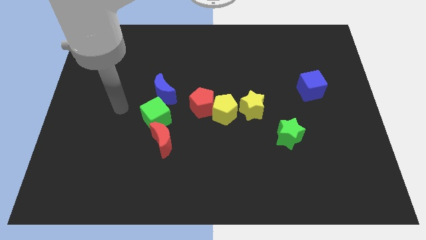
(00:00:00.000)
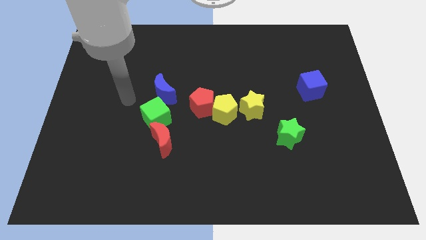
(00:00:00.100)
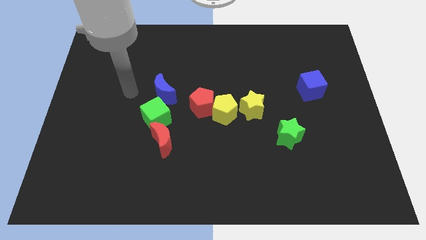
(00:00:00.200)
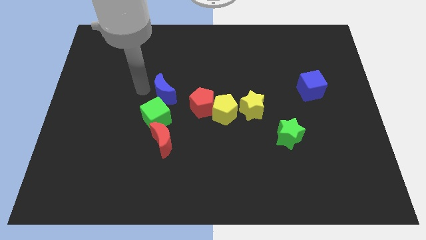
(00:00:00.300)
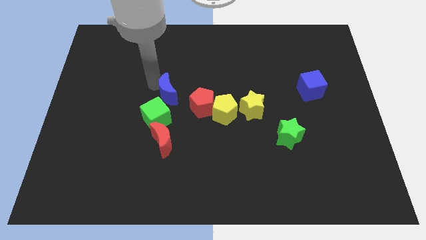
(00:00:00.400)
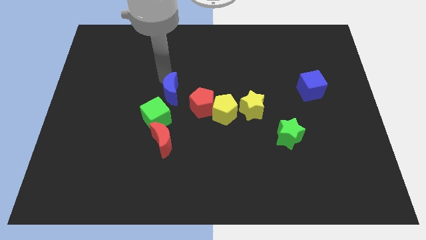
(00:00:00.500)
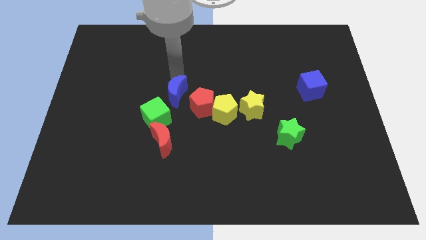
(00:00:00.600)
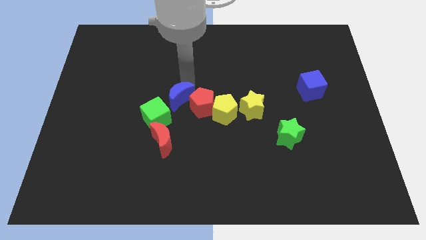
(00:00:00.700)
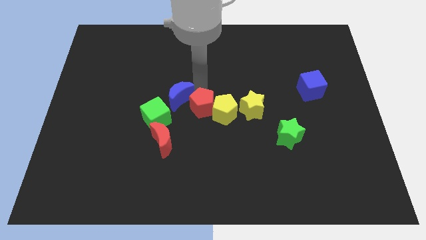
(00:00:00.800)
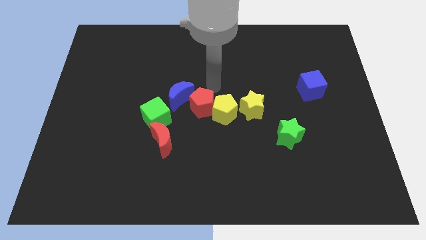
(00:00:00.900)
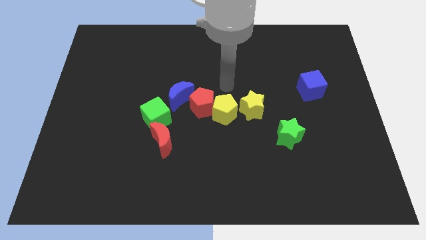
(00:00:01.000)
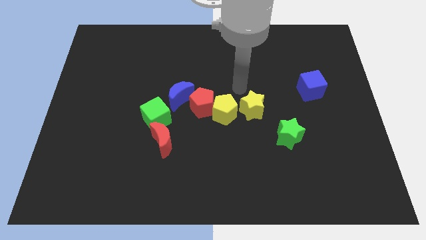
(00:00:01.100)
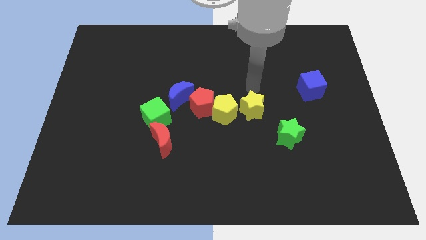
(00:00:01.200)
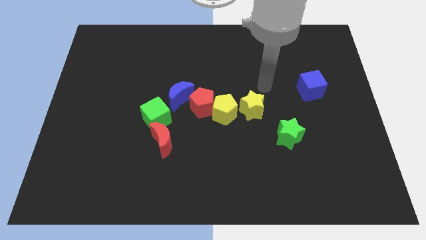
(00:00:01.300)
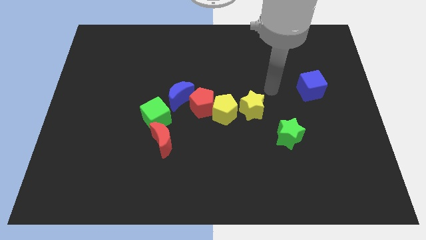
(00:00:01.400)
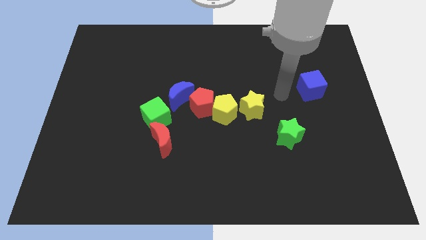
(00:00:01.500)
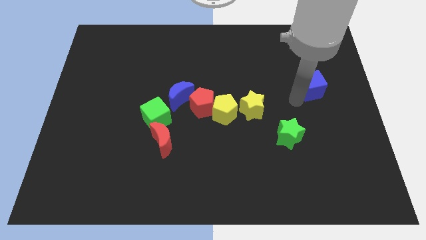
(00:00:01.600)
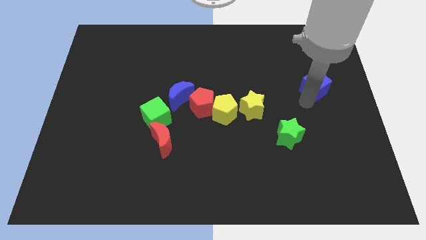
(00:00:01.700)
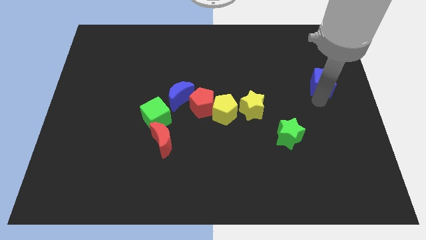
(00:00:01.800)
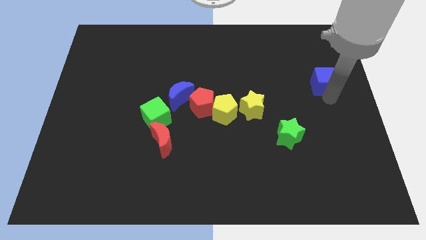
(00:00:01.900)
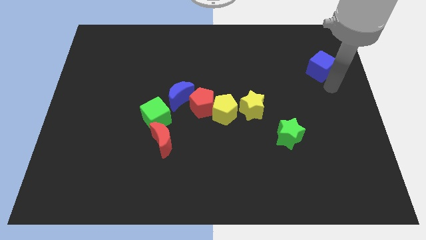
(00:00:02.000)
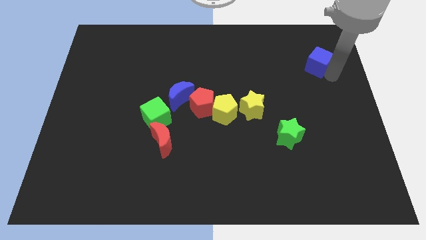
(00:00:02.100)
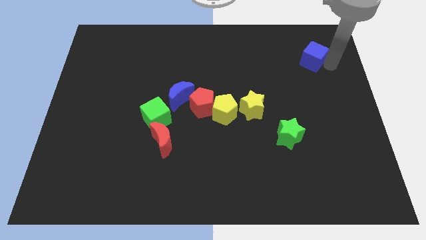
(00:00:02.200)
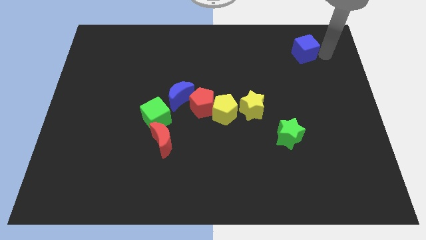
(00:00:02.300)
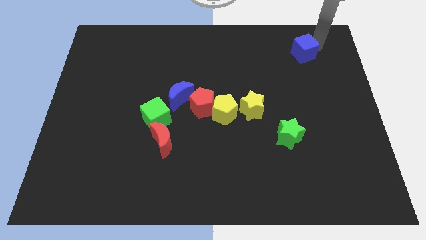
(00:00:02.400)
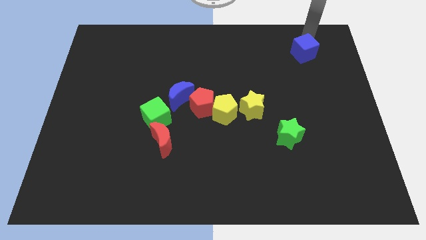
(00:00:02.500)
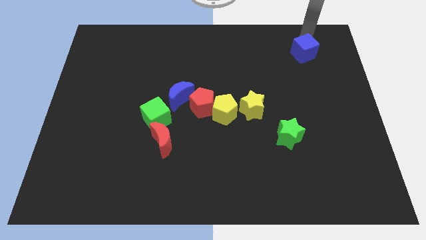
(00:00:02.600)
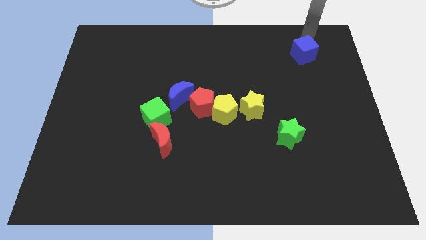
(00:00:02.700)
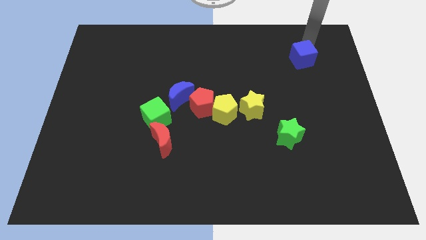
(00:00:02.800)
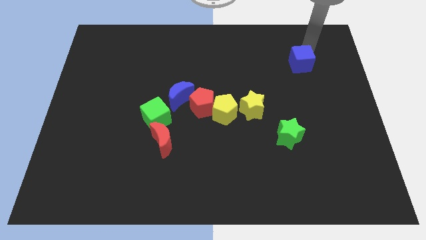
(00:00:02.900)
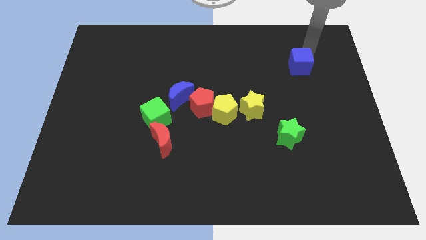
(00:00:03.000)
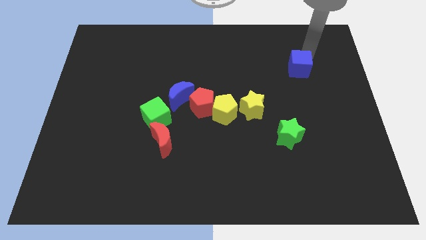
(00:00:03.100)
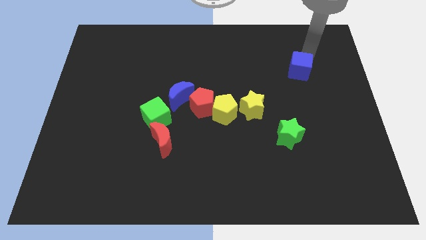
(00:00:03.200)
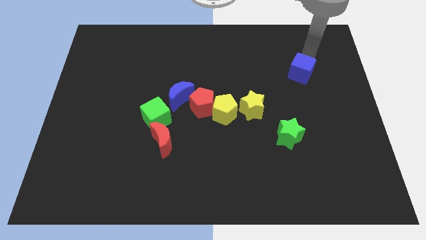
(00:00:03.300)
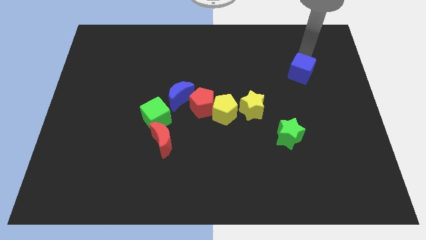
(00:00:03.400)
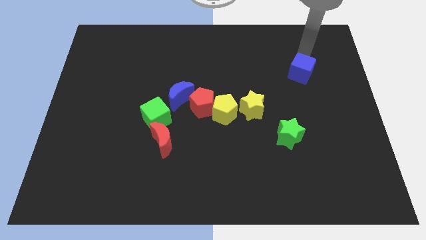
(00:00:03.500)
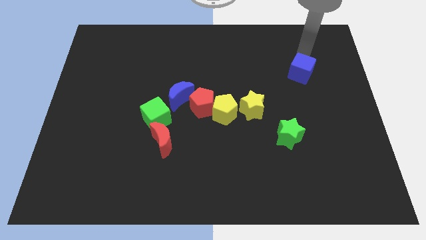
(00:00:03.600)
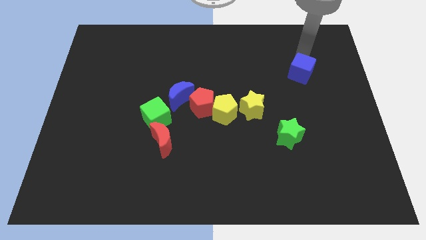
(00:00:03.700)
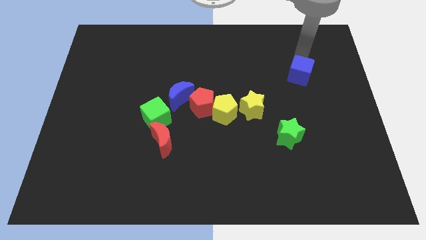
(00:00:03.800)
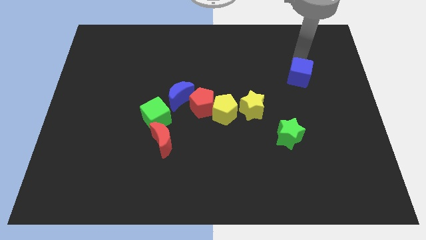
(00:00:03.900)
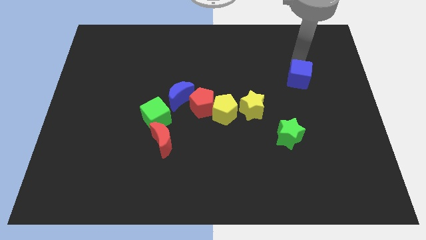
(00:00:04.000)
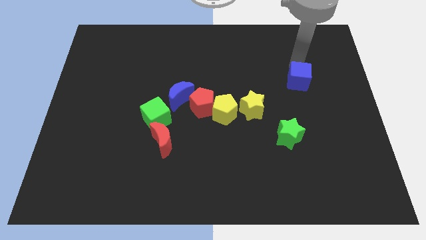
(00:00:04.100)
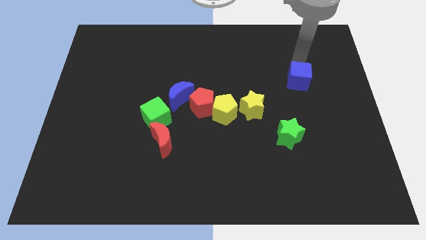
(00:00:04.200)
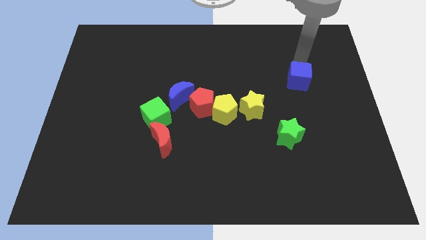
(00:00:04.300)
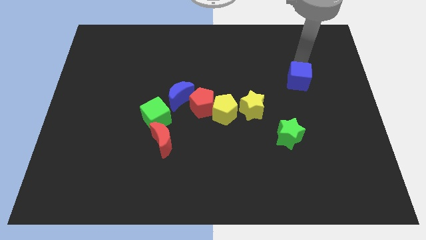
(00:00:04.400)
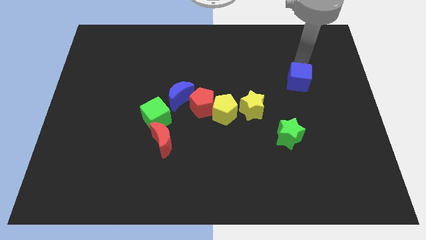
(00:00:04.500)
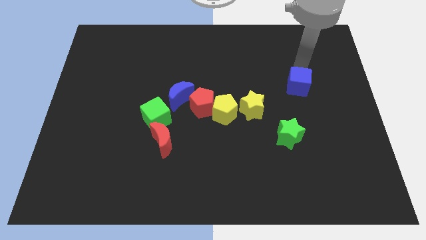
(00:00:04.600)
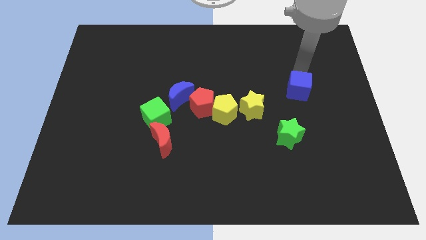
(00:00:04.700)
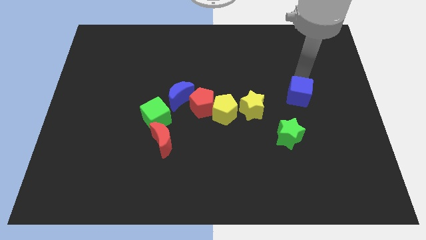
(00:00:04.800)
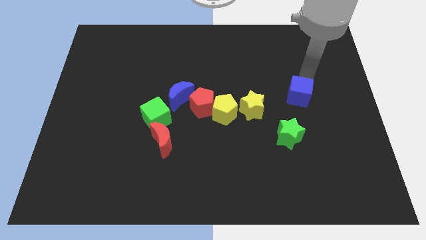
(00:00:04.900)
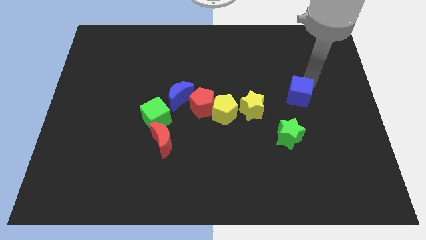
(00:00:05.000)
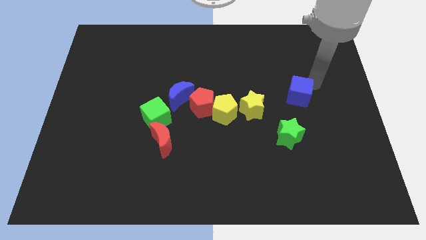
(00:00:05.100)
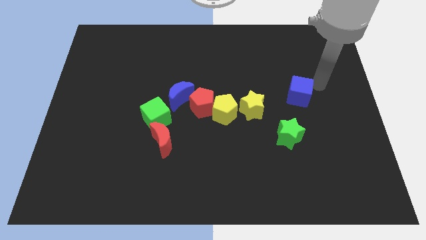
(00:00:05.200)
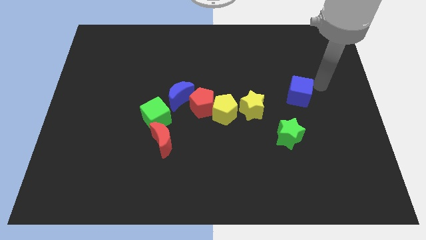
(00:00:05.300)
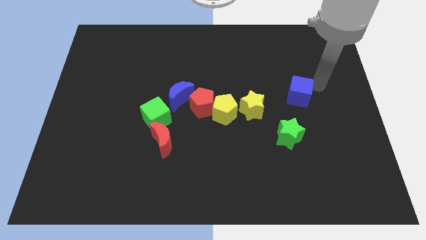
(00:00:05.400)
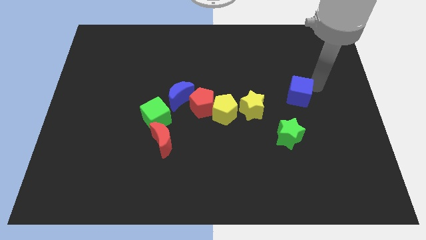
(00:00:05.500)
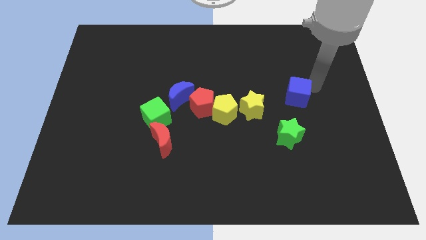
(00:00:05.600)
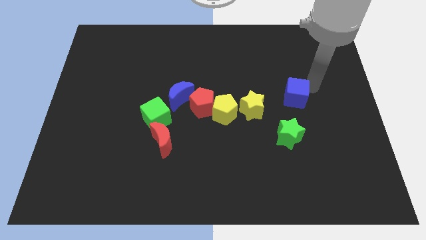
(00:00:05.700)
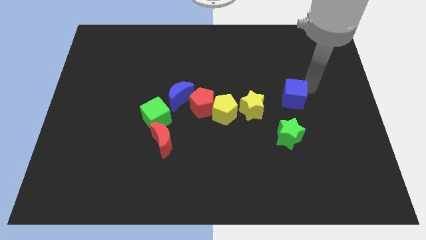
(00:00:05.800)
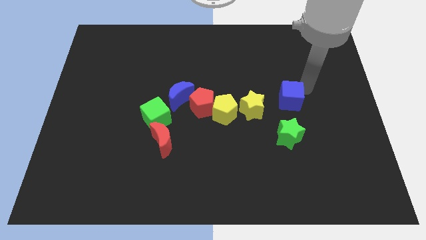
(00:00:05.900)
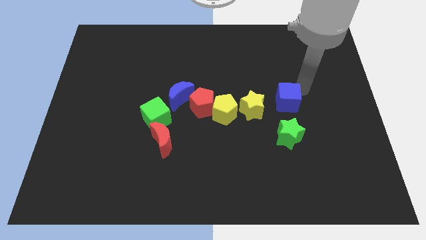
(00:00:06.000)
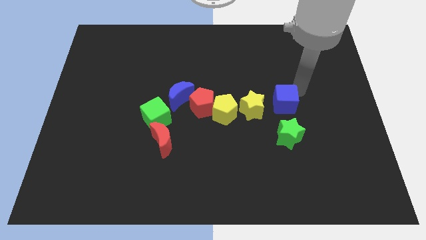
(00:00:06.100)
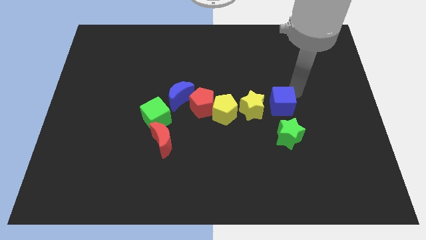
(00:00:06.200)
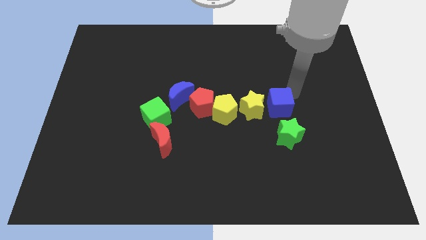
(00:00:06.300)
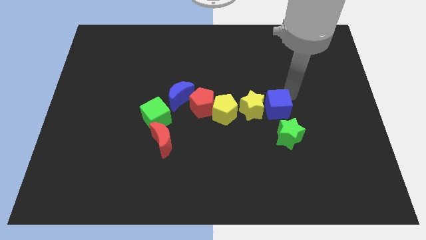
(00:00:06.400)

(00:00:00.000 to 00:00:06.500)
push the blue cube next to the yellow star

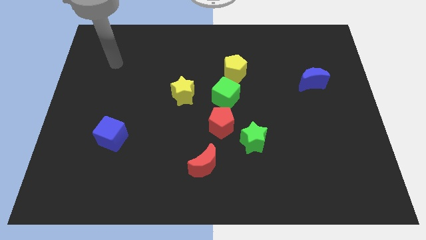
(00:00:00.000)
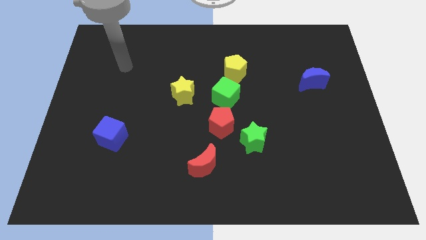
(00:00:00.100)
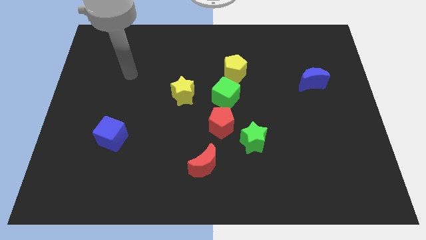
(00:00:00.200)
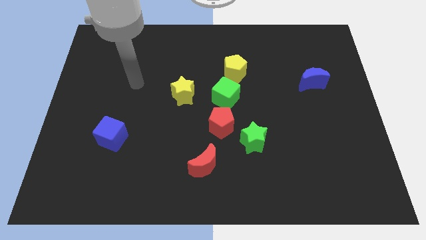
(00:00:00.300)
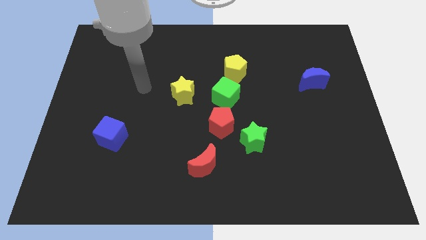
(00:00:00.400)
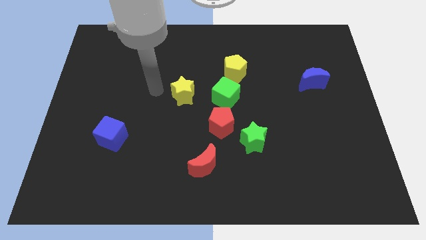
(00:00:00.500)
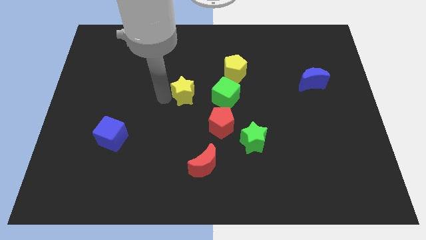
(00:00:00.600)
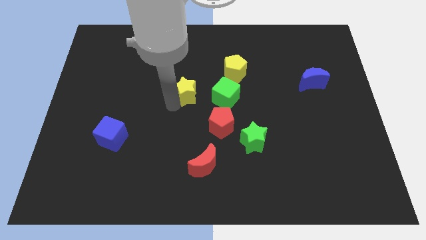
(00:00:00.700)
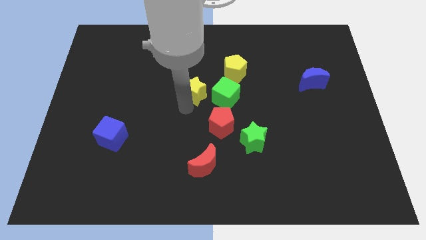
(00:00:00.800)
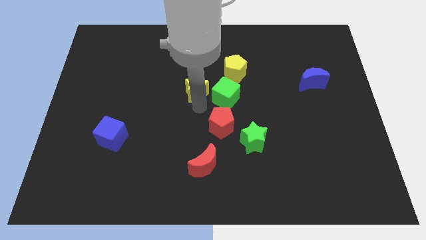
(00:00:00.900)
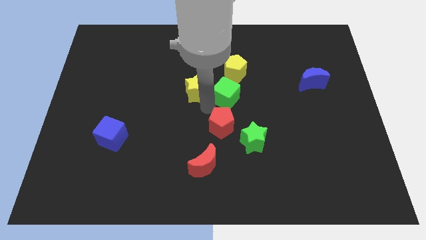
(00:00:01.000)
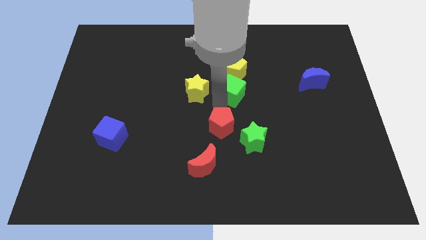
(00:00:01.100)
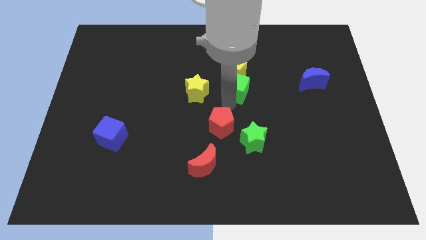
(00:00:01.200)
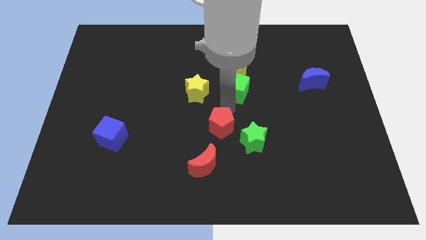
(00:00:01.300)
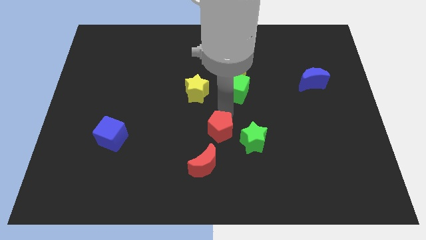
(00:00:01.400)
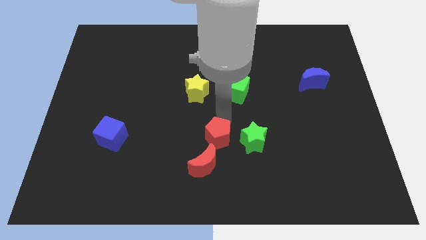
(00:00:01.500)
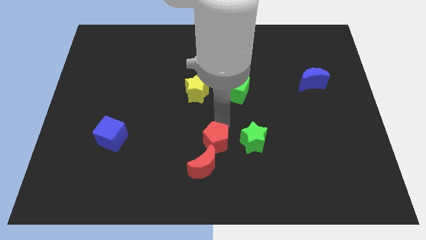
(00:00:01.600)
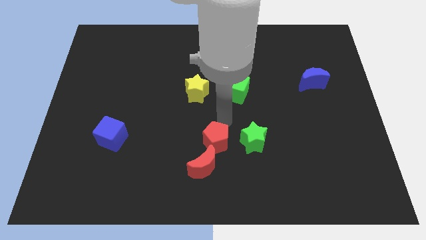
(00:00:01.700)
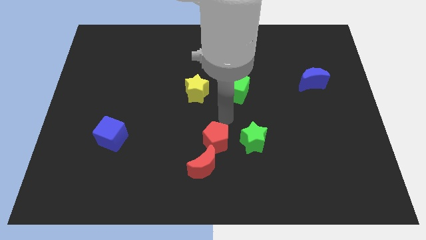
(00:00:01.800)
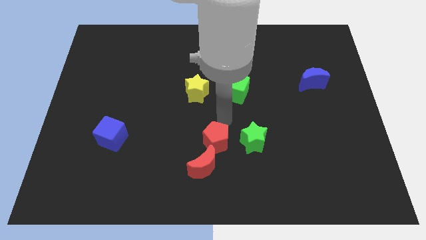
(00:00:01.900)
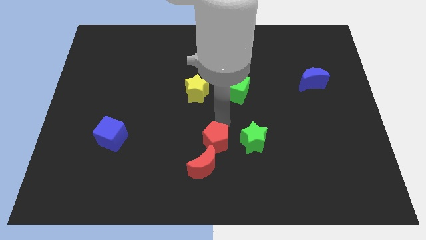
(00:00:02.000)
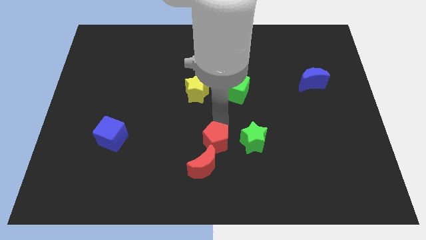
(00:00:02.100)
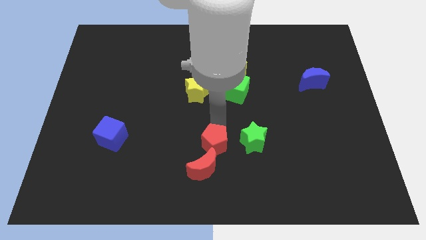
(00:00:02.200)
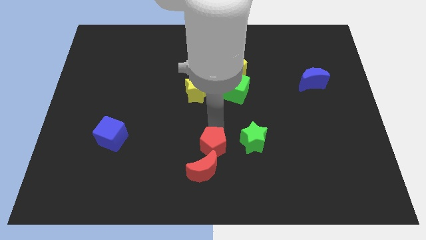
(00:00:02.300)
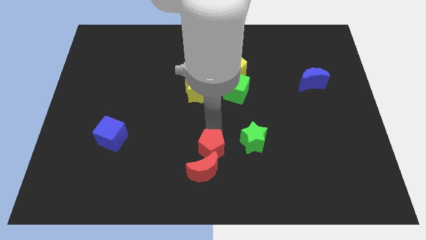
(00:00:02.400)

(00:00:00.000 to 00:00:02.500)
move the red pentagon towards the red moon
